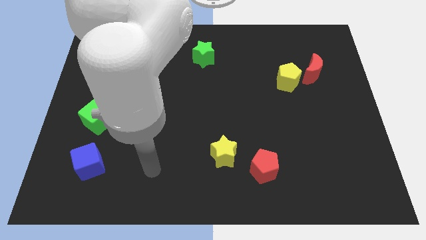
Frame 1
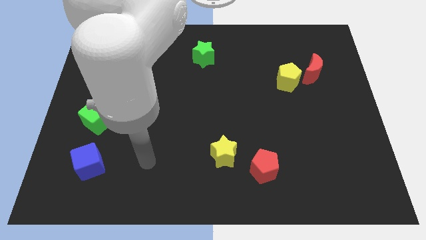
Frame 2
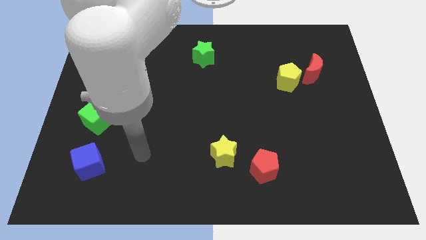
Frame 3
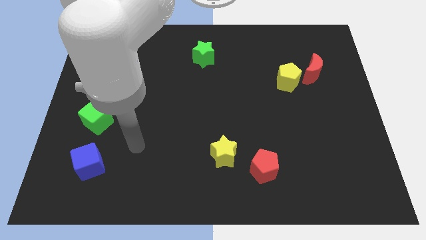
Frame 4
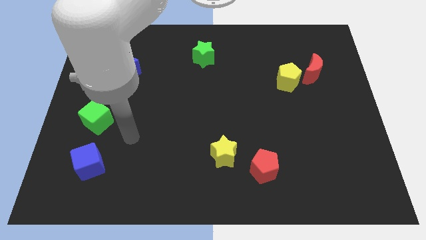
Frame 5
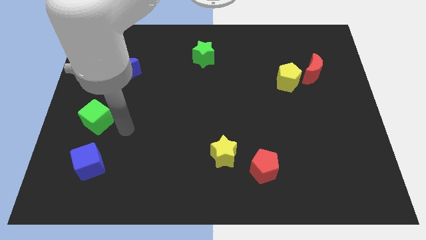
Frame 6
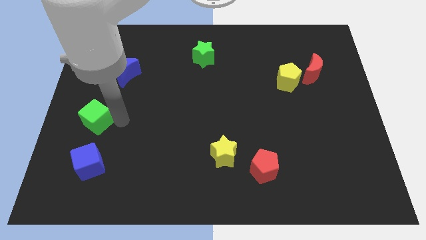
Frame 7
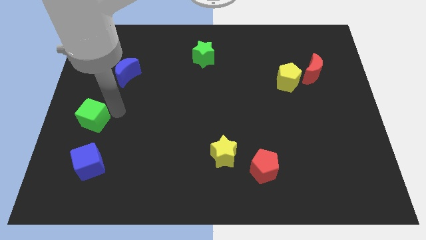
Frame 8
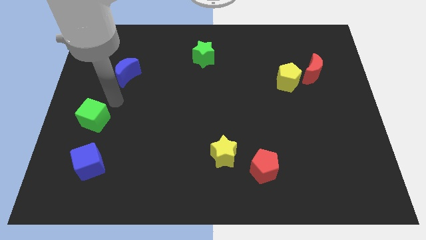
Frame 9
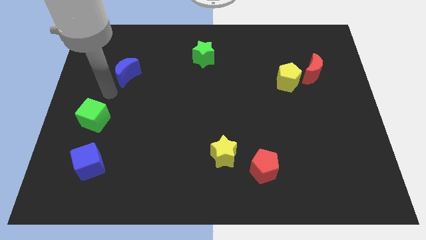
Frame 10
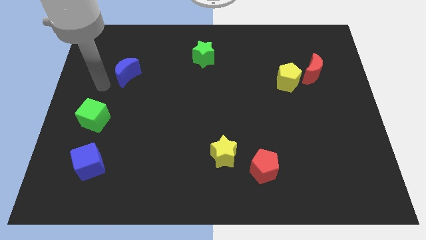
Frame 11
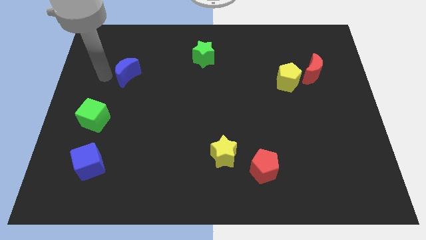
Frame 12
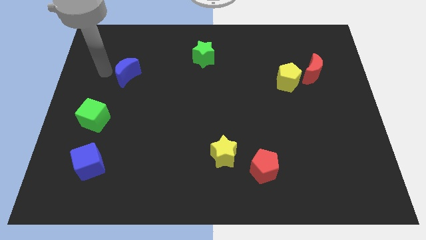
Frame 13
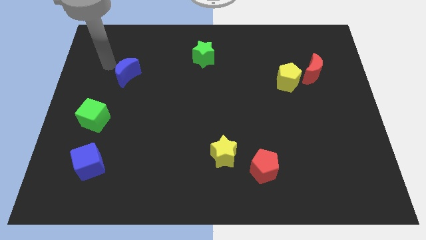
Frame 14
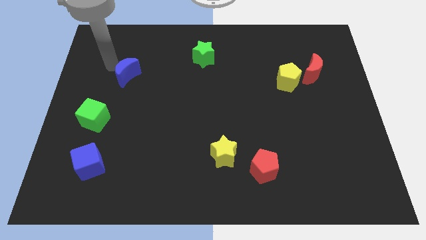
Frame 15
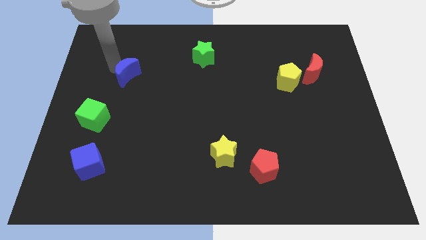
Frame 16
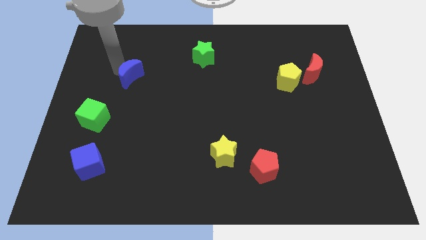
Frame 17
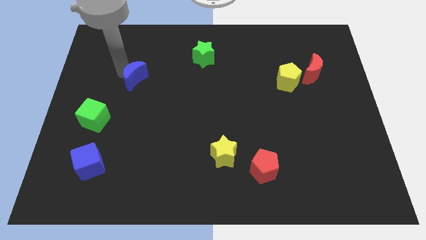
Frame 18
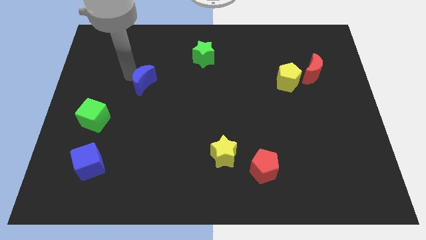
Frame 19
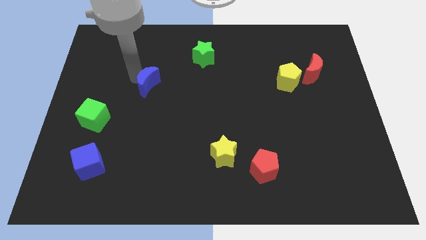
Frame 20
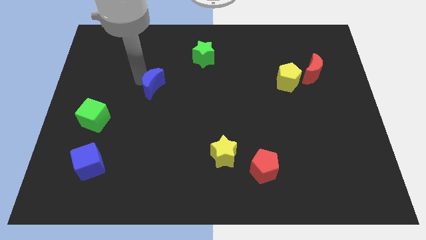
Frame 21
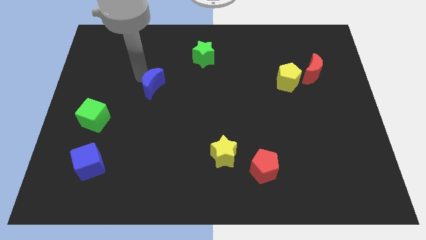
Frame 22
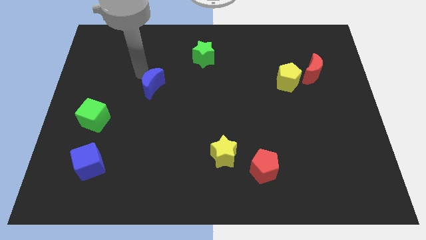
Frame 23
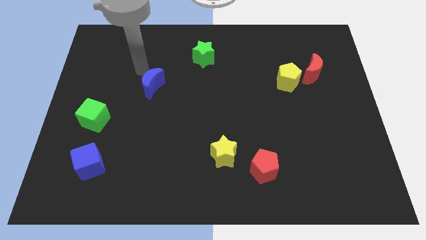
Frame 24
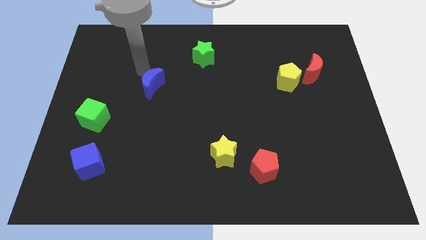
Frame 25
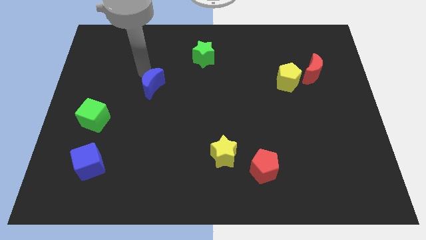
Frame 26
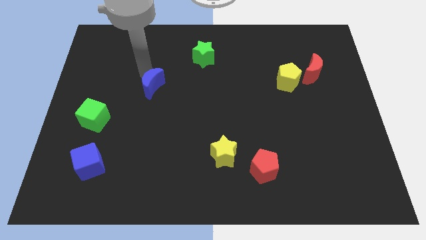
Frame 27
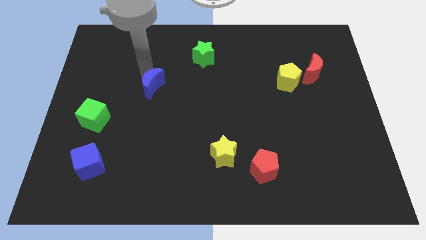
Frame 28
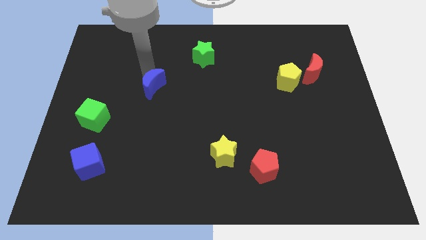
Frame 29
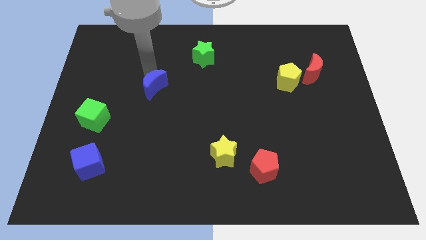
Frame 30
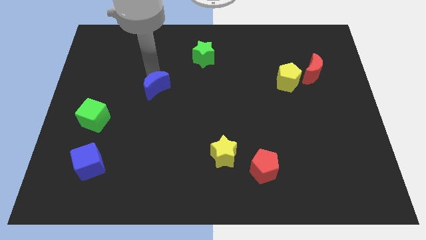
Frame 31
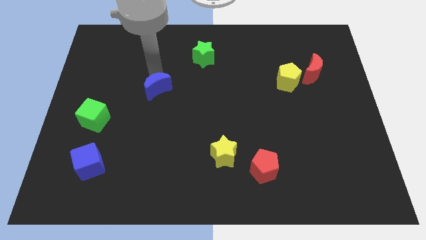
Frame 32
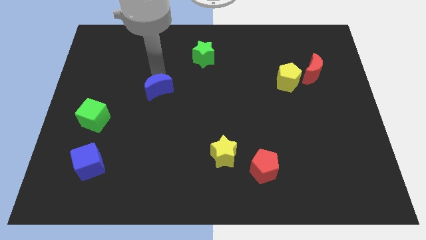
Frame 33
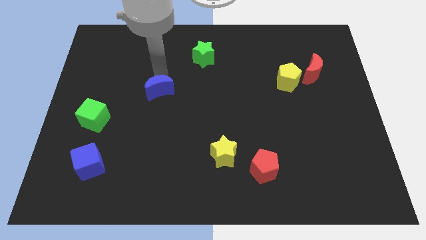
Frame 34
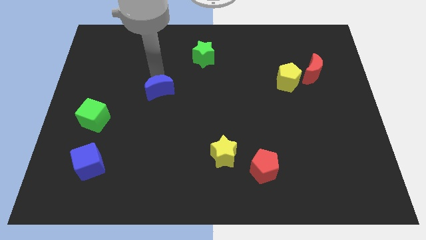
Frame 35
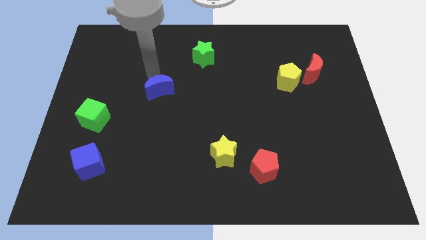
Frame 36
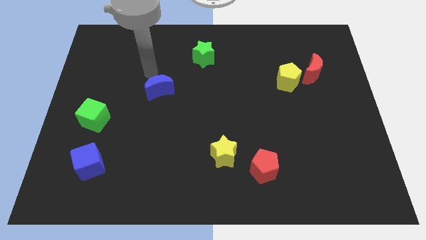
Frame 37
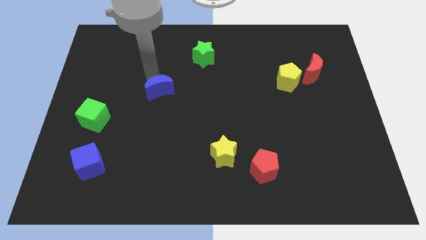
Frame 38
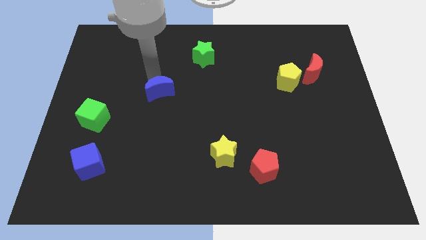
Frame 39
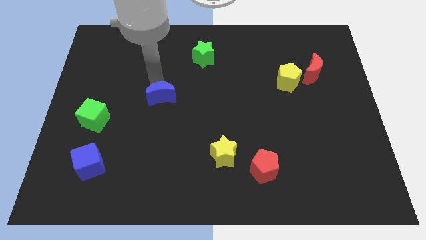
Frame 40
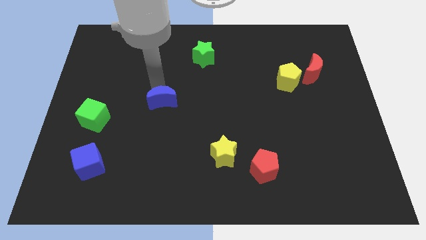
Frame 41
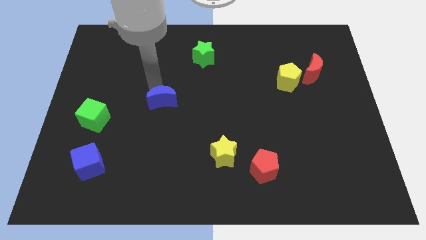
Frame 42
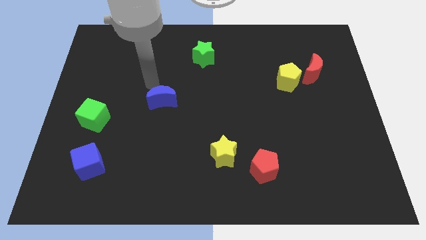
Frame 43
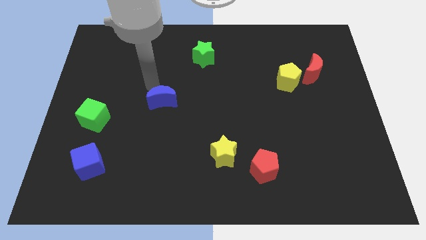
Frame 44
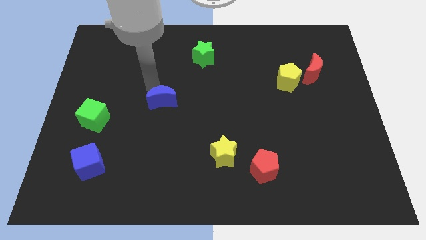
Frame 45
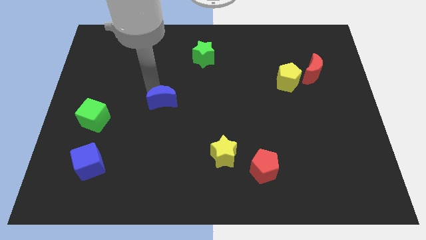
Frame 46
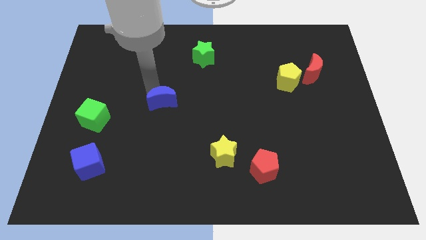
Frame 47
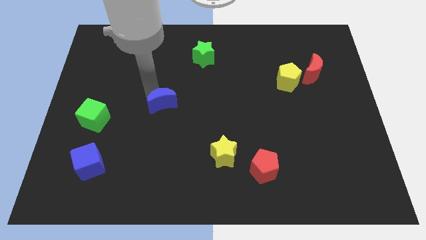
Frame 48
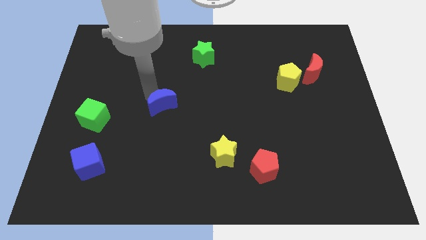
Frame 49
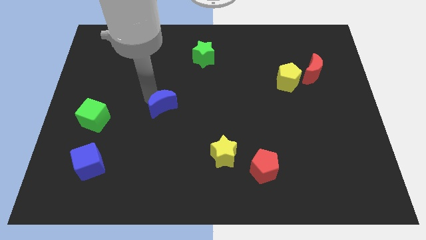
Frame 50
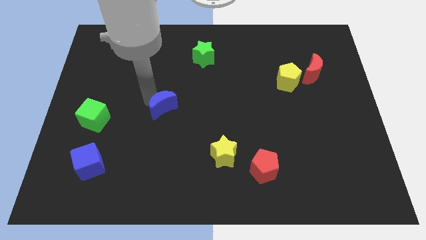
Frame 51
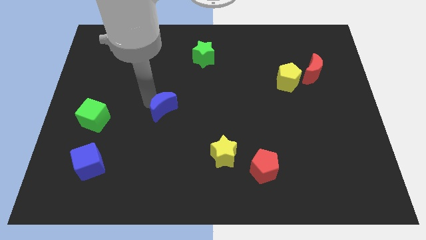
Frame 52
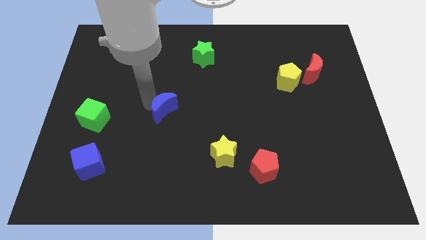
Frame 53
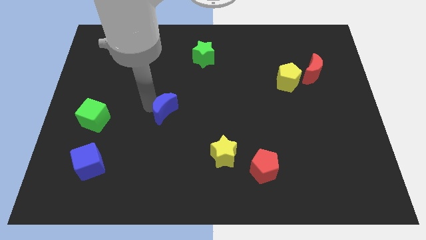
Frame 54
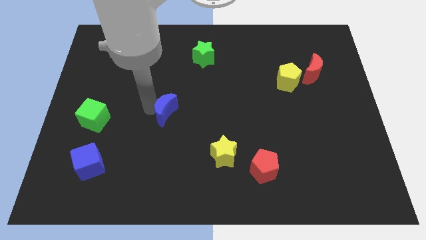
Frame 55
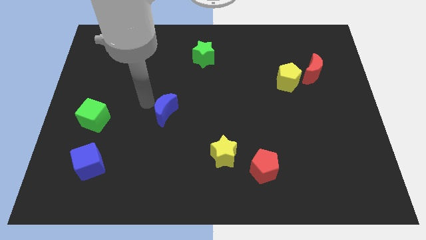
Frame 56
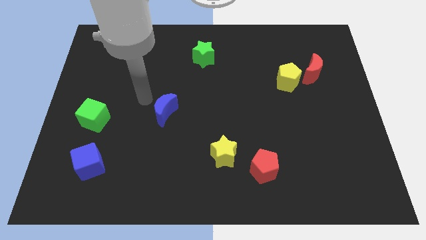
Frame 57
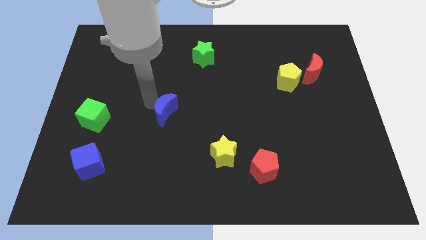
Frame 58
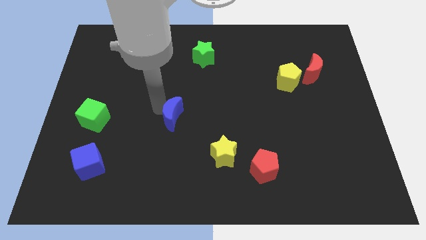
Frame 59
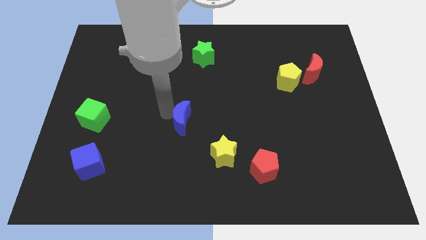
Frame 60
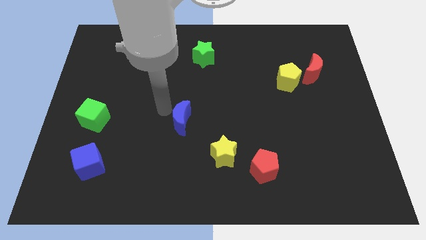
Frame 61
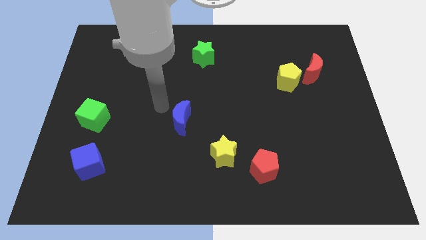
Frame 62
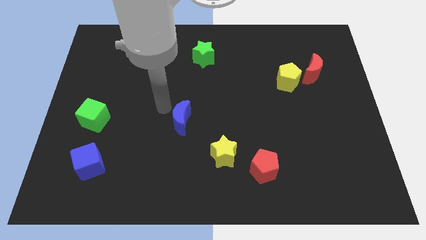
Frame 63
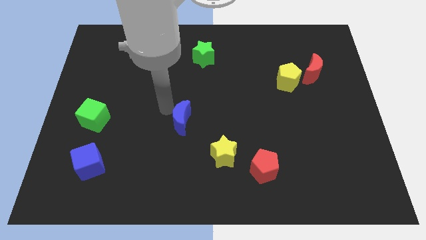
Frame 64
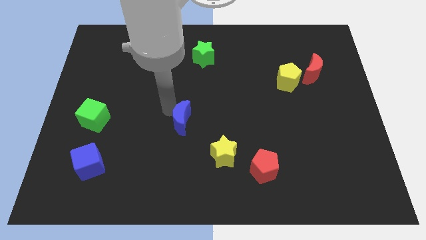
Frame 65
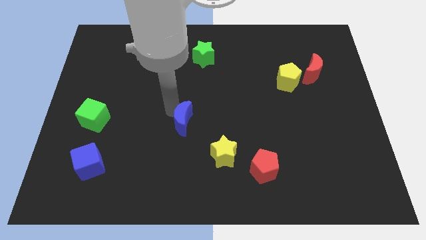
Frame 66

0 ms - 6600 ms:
put the blue moon to the top left side of the yellow star
